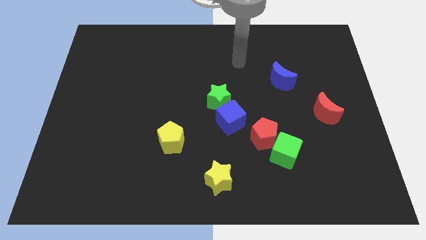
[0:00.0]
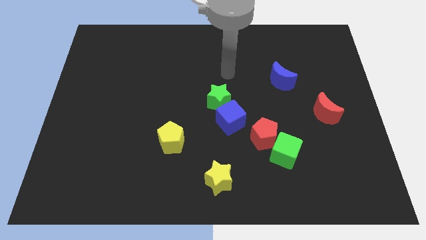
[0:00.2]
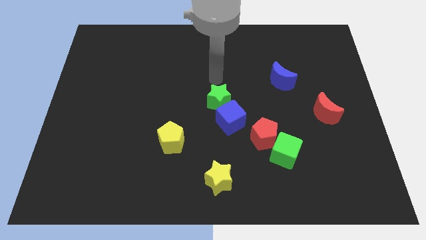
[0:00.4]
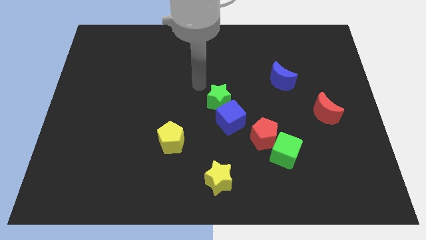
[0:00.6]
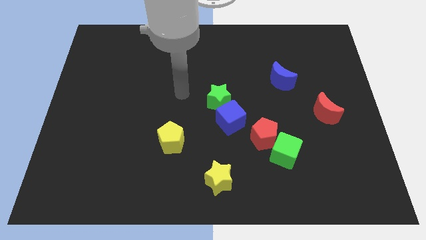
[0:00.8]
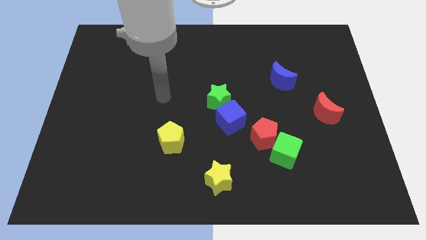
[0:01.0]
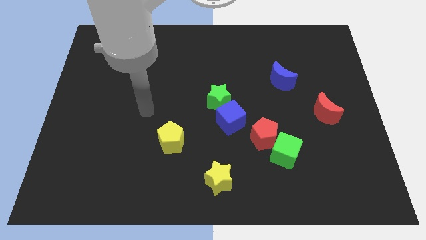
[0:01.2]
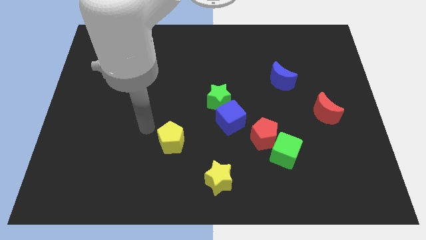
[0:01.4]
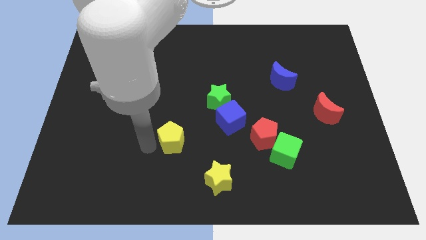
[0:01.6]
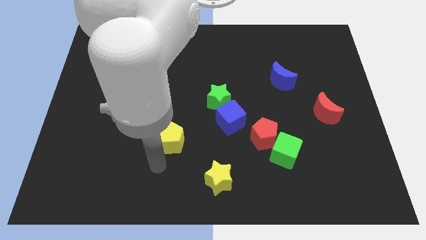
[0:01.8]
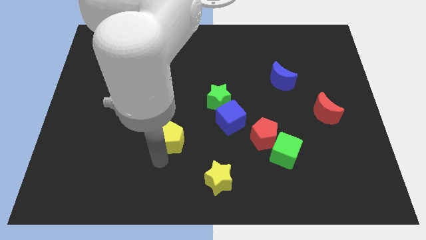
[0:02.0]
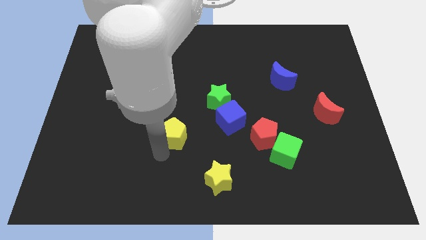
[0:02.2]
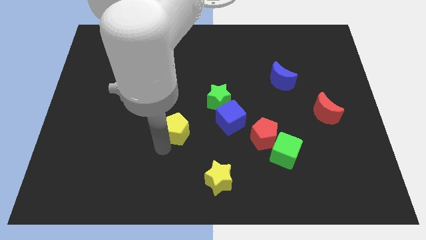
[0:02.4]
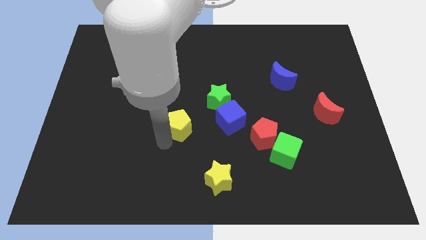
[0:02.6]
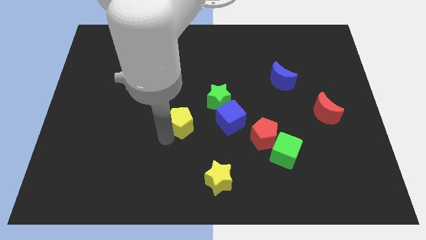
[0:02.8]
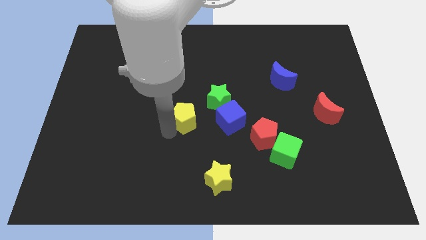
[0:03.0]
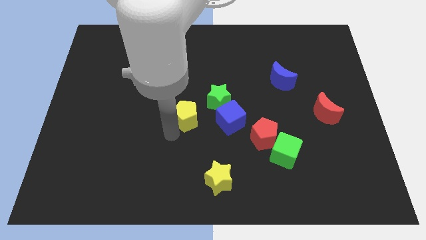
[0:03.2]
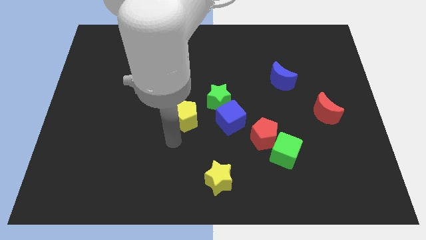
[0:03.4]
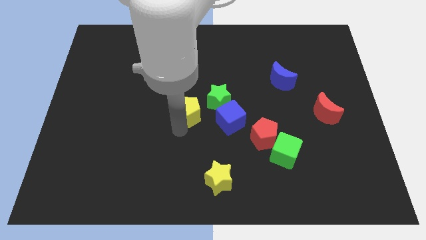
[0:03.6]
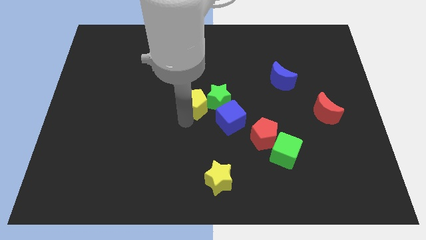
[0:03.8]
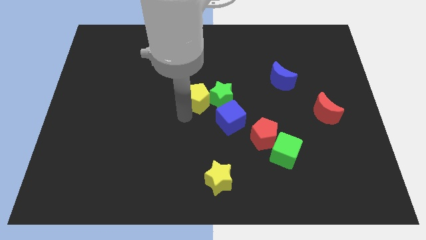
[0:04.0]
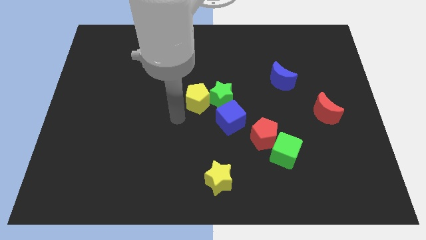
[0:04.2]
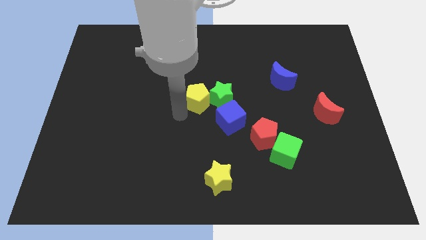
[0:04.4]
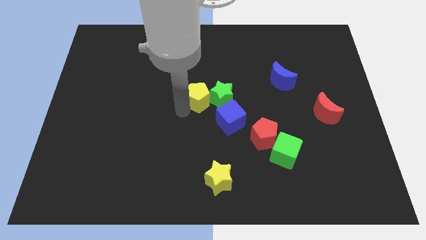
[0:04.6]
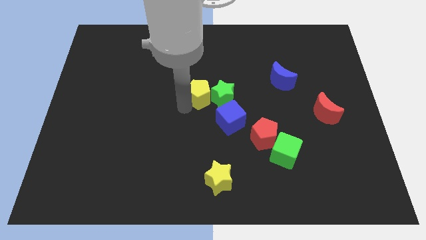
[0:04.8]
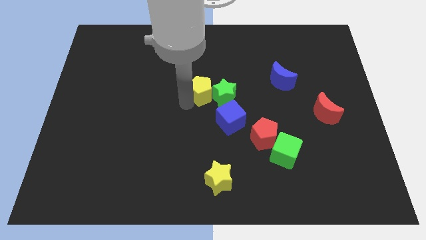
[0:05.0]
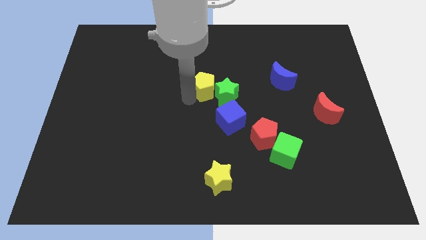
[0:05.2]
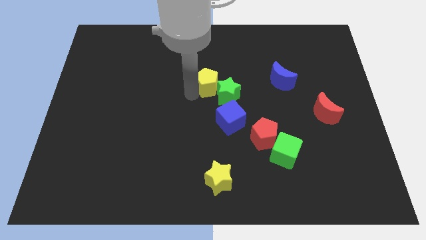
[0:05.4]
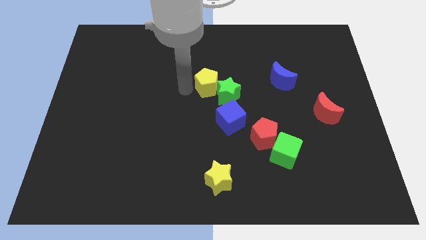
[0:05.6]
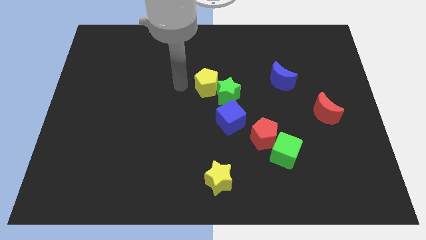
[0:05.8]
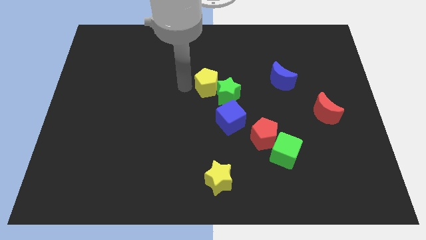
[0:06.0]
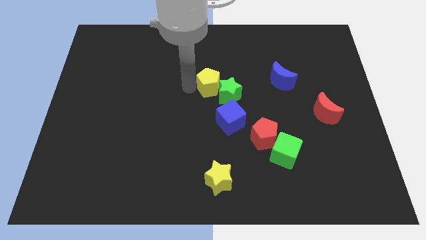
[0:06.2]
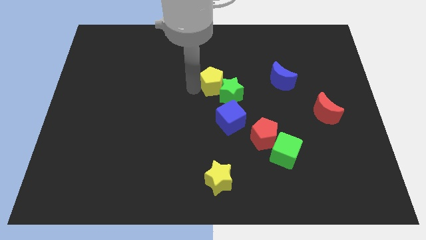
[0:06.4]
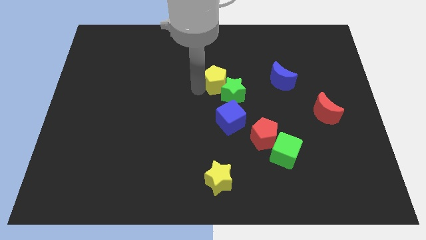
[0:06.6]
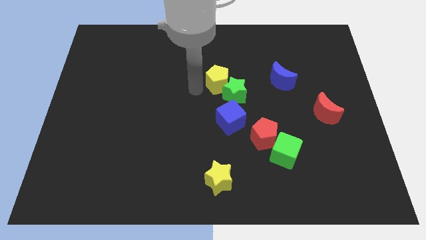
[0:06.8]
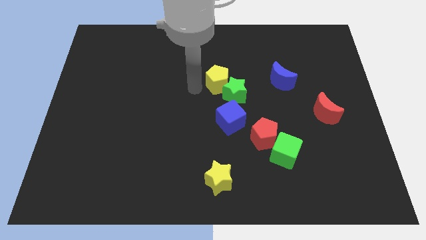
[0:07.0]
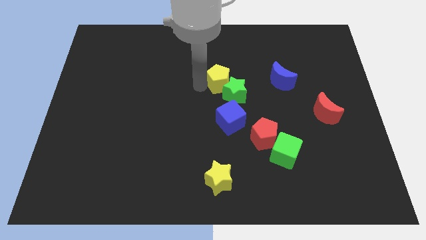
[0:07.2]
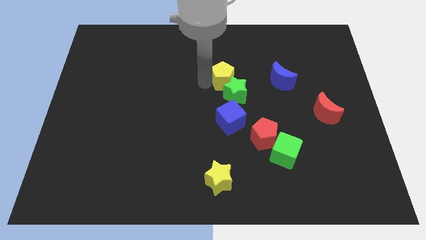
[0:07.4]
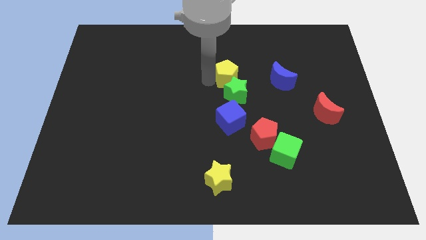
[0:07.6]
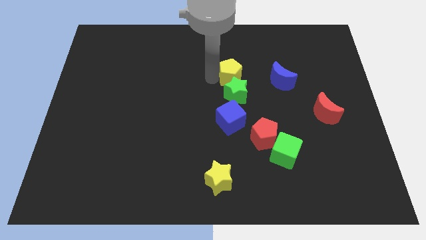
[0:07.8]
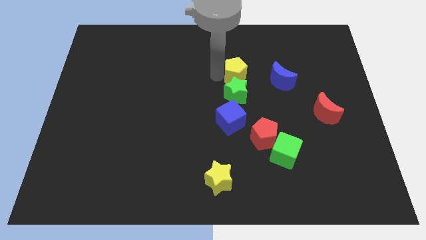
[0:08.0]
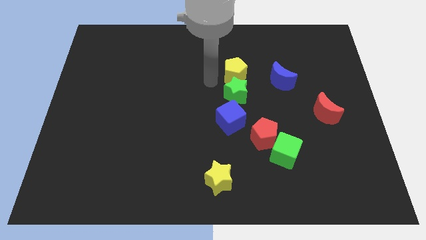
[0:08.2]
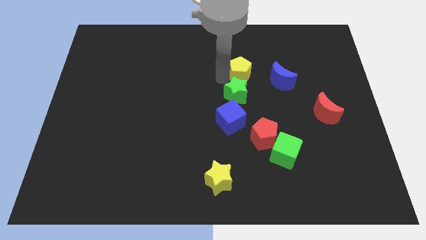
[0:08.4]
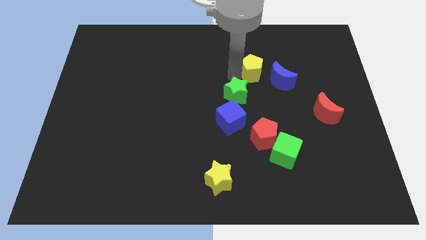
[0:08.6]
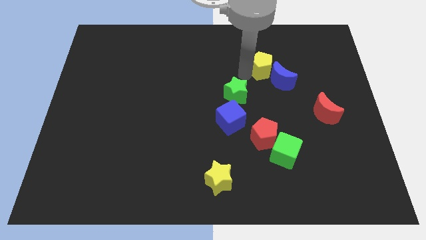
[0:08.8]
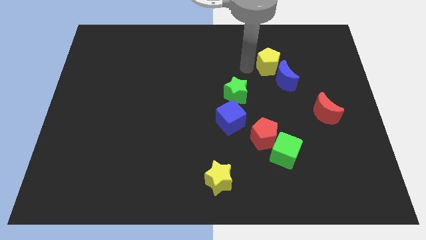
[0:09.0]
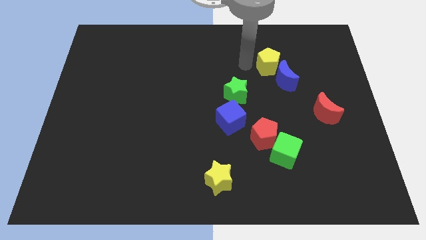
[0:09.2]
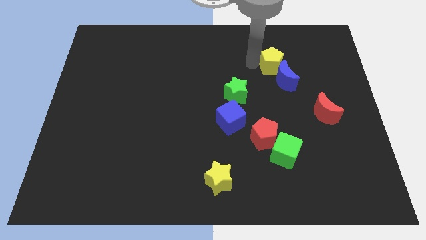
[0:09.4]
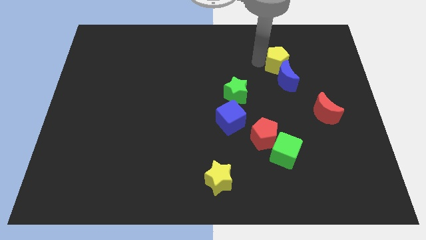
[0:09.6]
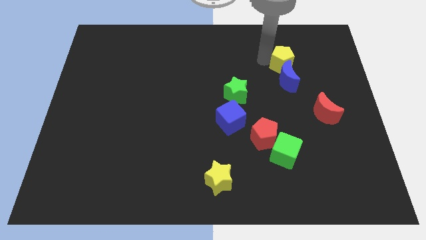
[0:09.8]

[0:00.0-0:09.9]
push the yellow pentagon to the top right of the blue moon

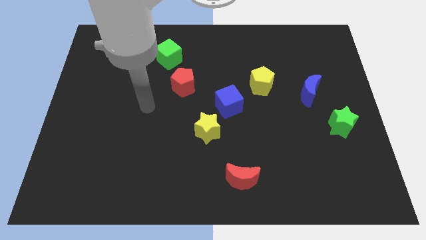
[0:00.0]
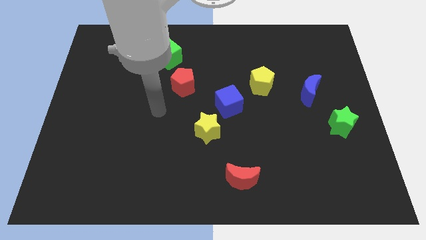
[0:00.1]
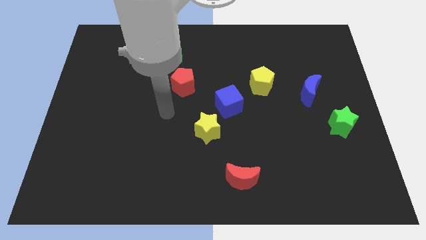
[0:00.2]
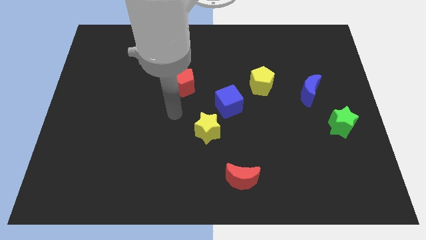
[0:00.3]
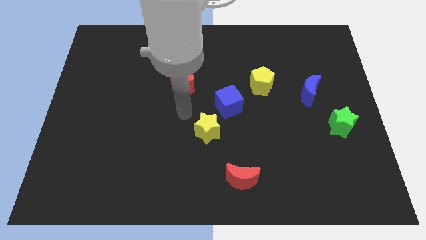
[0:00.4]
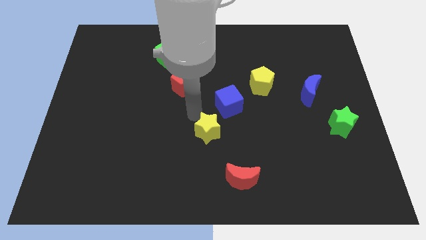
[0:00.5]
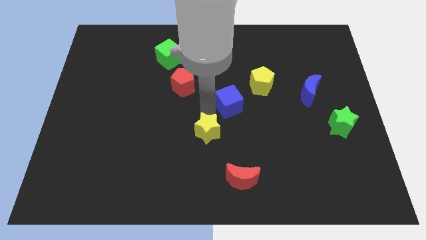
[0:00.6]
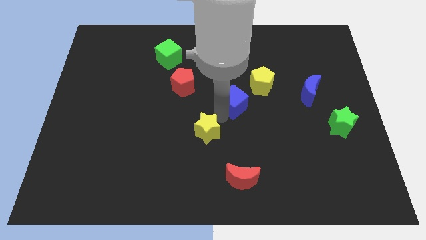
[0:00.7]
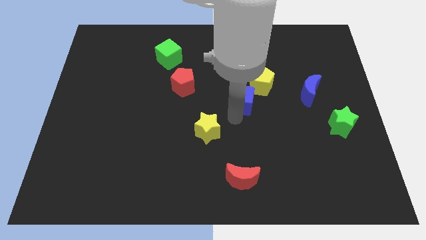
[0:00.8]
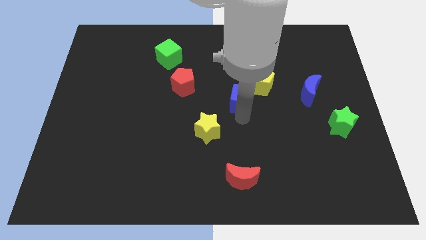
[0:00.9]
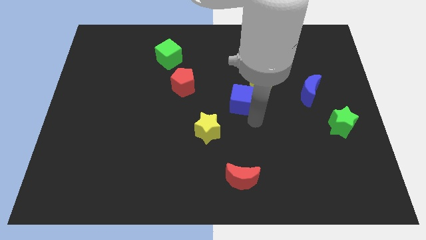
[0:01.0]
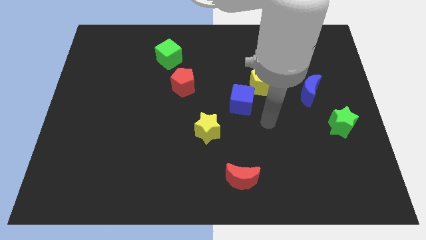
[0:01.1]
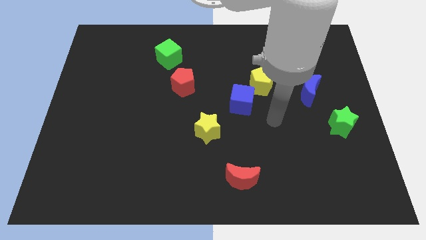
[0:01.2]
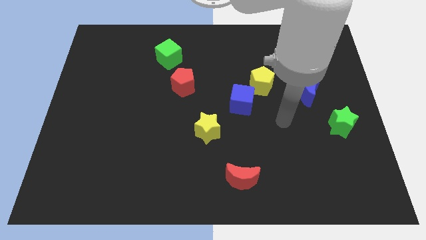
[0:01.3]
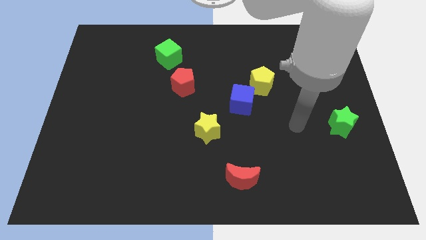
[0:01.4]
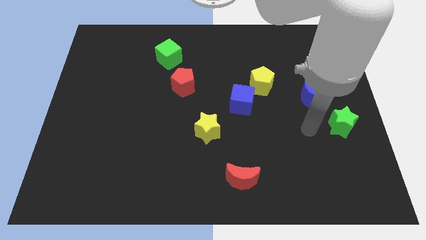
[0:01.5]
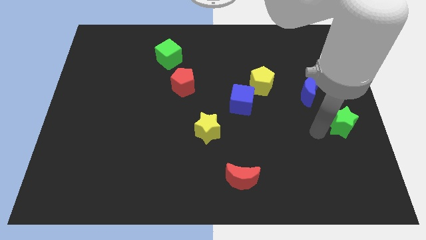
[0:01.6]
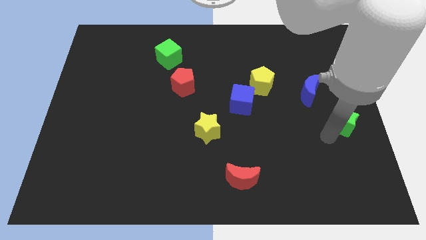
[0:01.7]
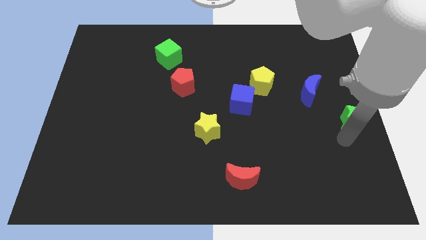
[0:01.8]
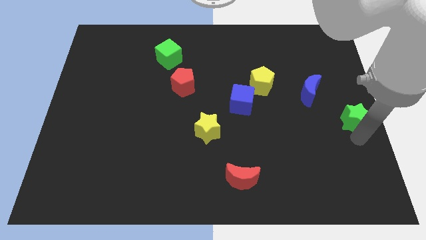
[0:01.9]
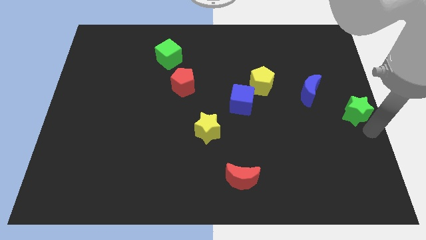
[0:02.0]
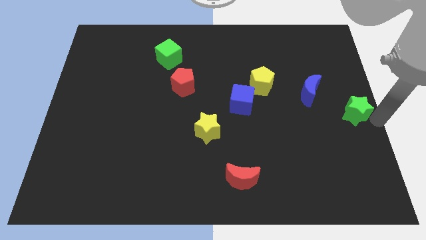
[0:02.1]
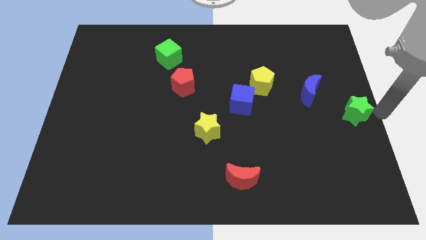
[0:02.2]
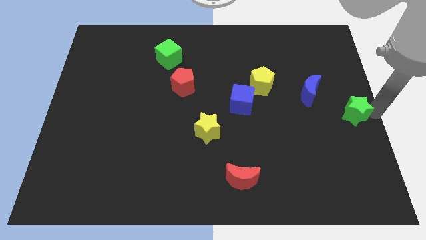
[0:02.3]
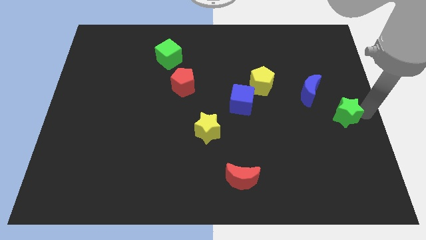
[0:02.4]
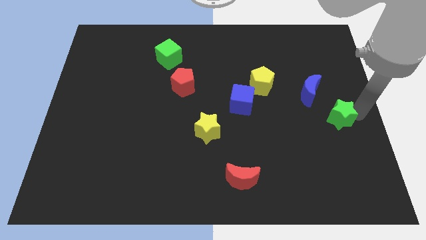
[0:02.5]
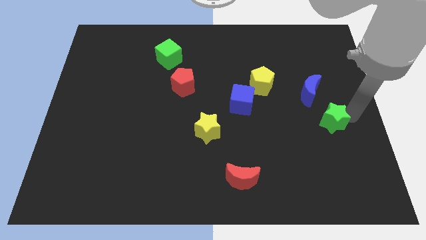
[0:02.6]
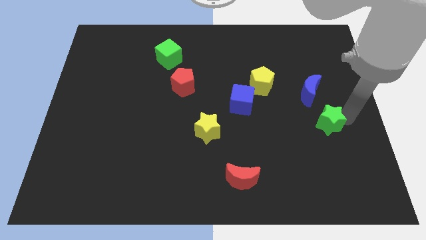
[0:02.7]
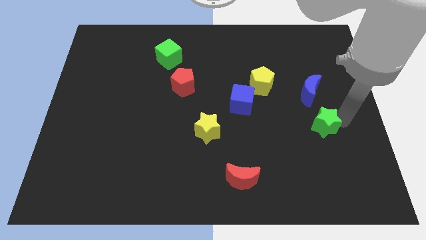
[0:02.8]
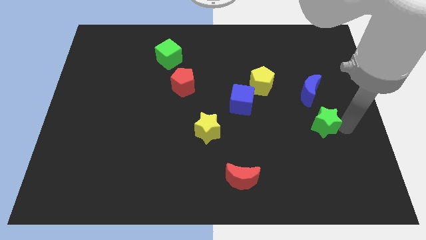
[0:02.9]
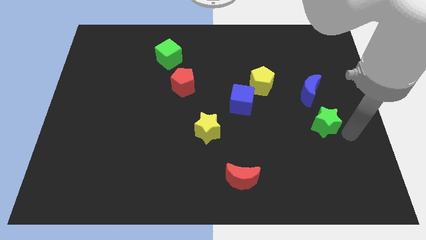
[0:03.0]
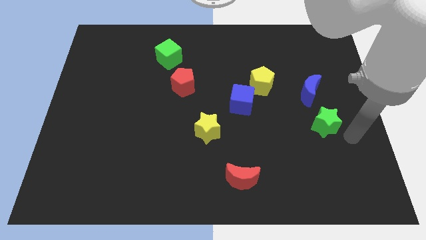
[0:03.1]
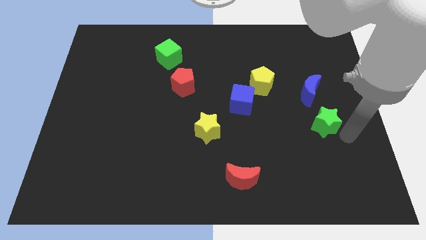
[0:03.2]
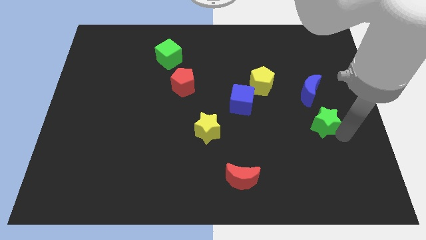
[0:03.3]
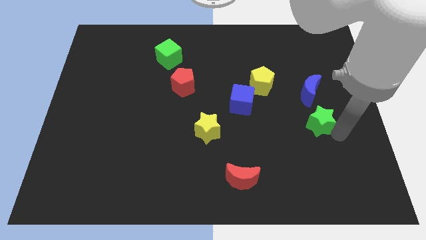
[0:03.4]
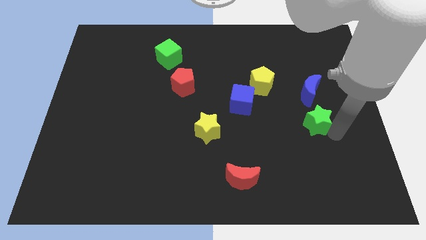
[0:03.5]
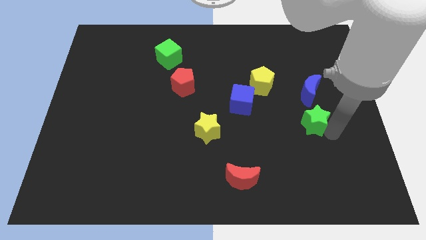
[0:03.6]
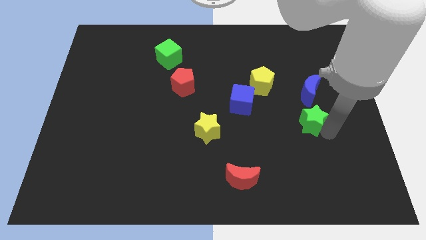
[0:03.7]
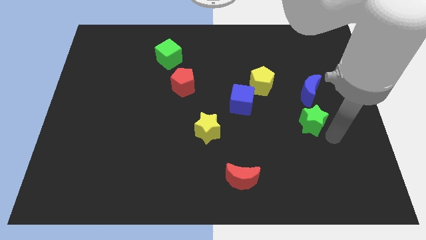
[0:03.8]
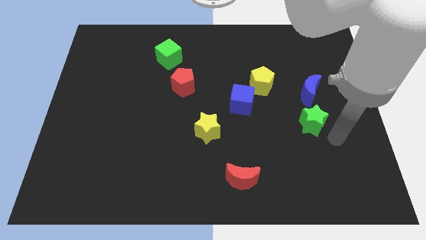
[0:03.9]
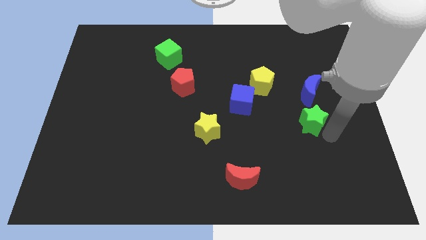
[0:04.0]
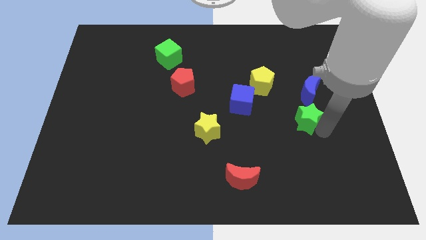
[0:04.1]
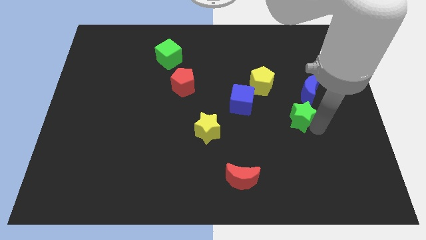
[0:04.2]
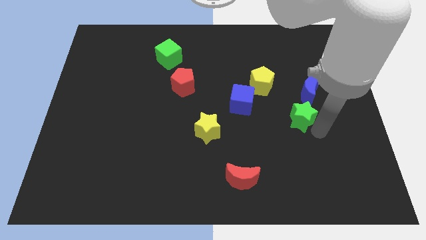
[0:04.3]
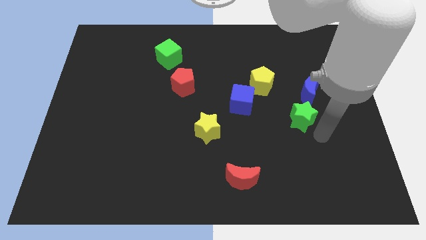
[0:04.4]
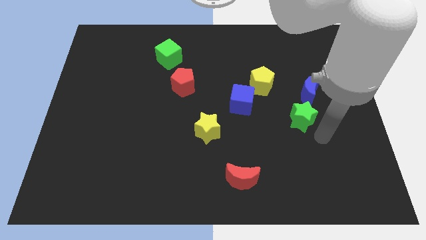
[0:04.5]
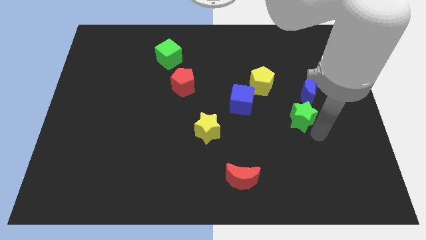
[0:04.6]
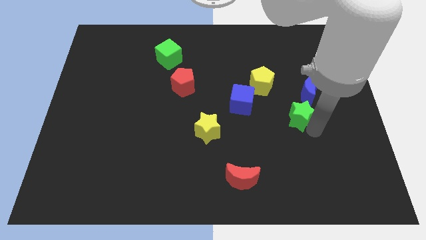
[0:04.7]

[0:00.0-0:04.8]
move the green star just right of the blue cube
